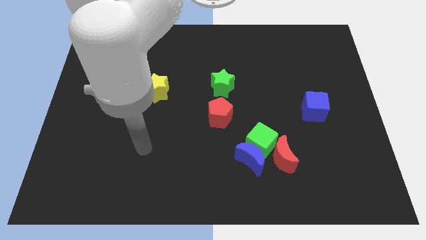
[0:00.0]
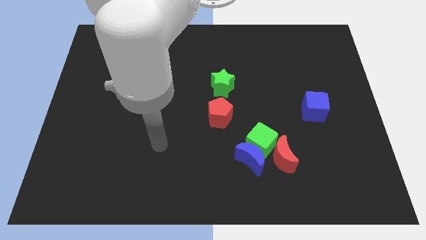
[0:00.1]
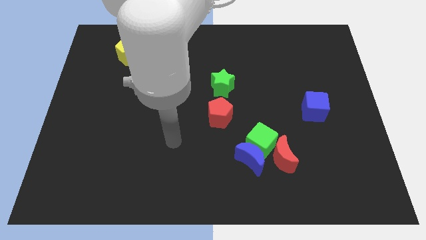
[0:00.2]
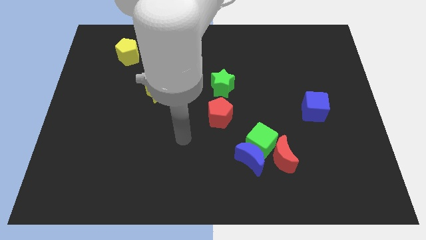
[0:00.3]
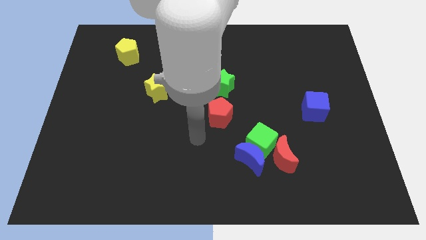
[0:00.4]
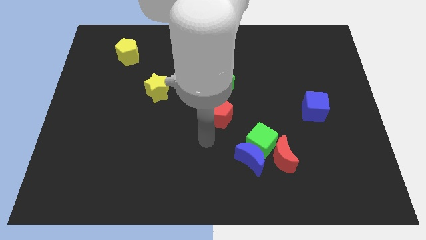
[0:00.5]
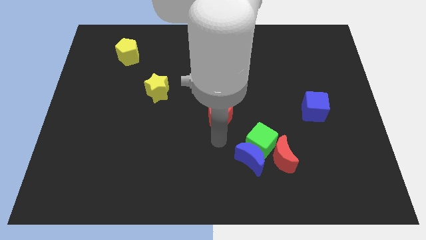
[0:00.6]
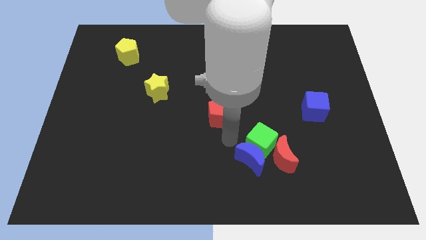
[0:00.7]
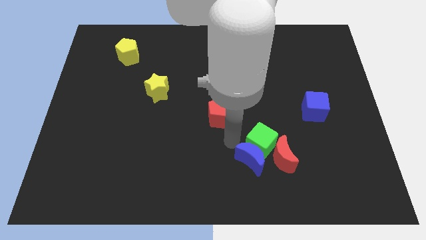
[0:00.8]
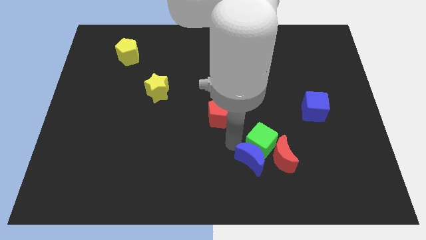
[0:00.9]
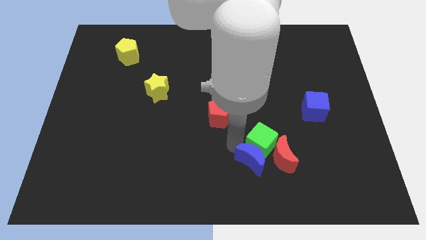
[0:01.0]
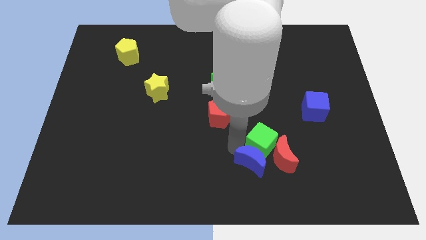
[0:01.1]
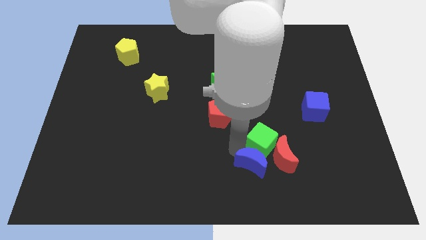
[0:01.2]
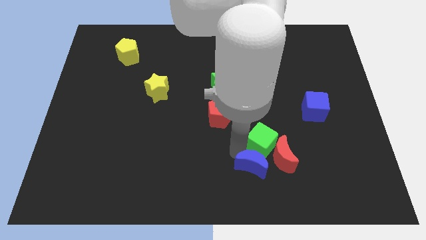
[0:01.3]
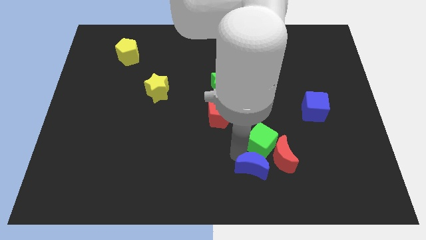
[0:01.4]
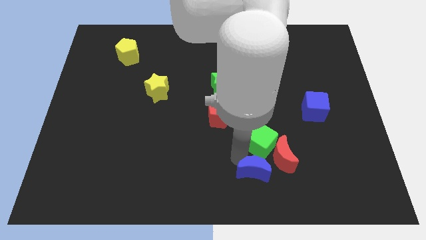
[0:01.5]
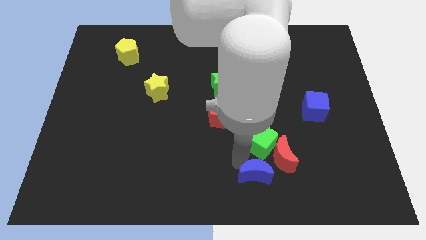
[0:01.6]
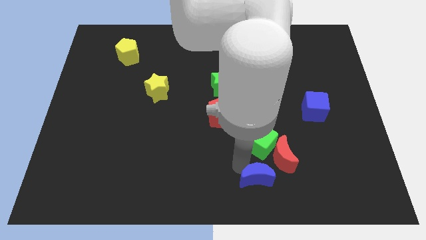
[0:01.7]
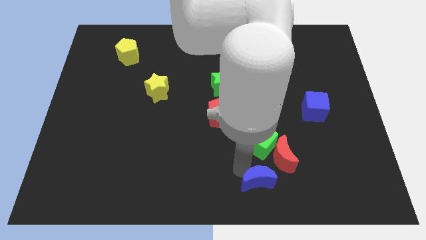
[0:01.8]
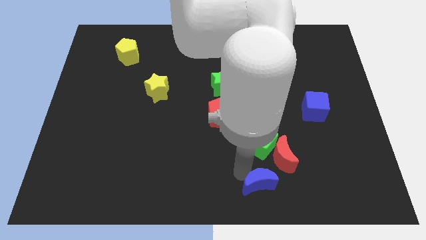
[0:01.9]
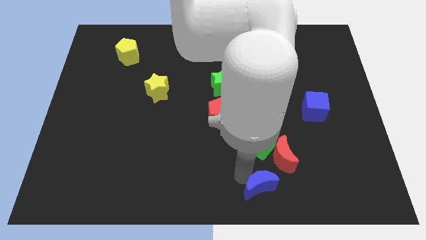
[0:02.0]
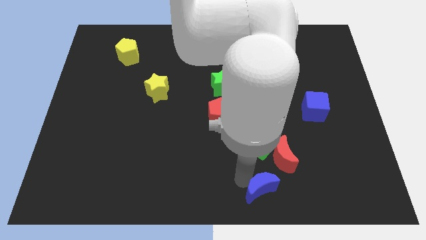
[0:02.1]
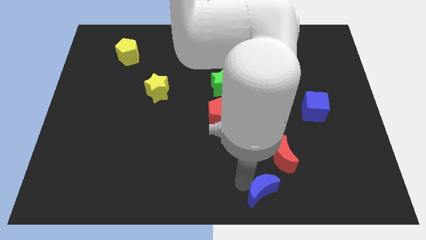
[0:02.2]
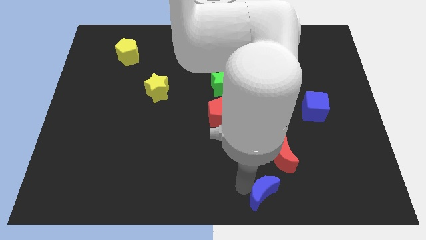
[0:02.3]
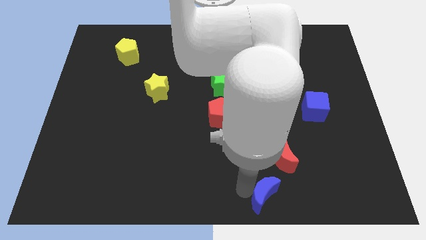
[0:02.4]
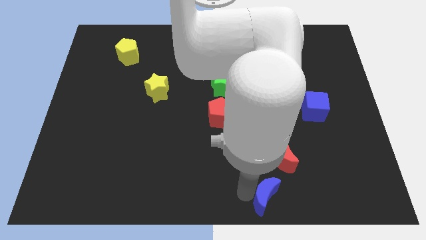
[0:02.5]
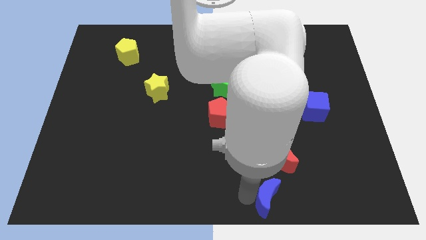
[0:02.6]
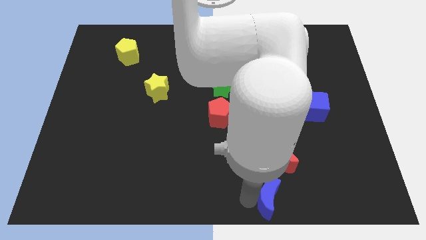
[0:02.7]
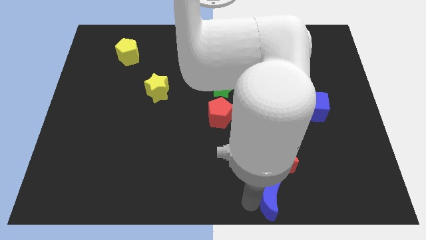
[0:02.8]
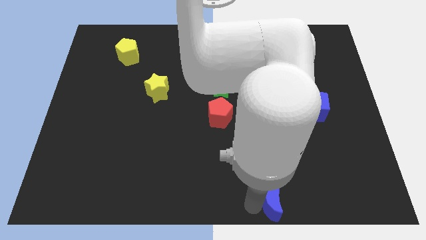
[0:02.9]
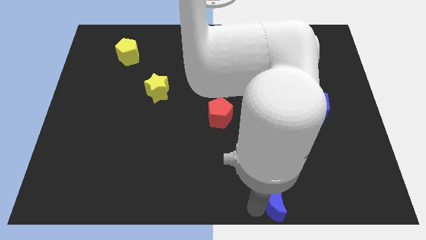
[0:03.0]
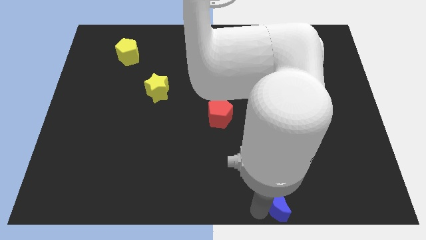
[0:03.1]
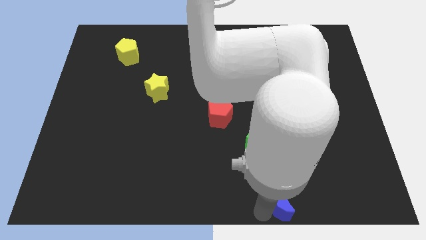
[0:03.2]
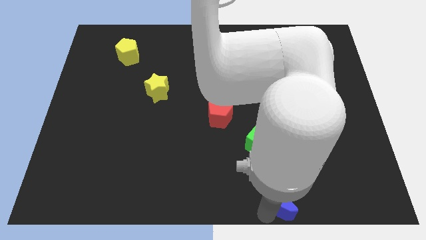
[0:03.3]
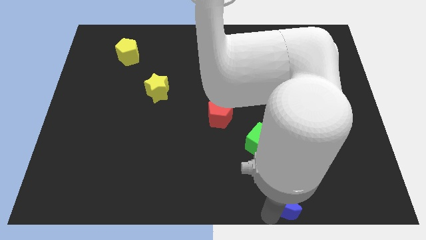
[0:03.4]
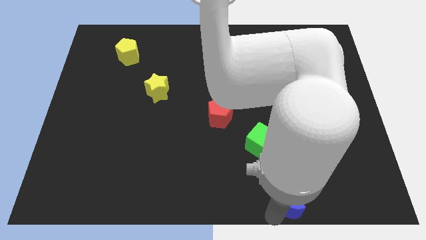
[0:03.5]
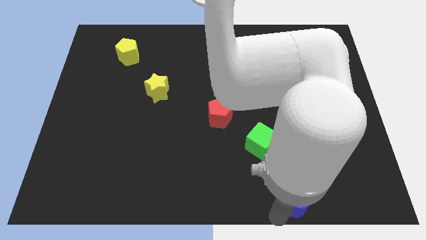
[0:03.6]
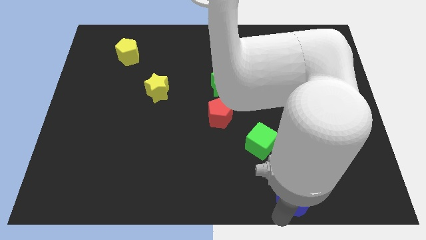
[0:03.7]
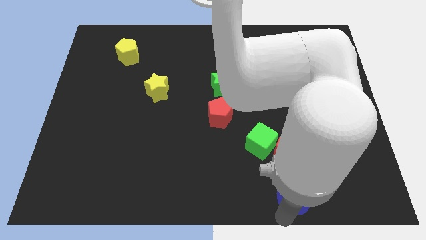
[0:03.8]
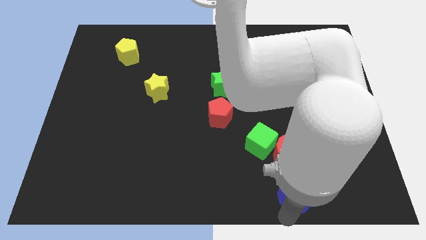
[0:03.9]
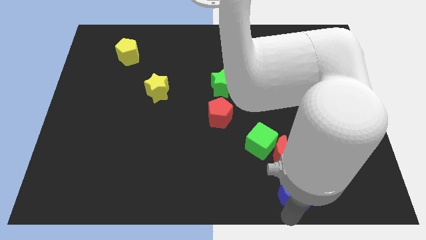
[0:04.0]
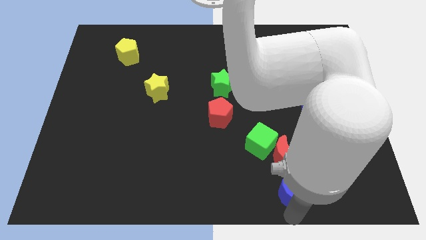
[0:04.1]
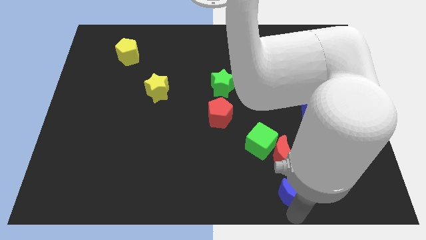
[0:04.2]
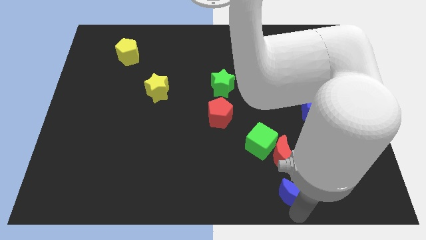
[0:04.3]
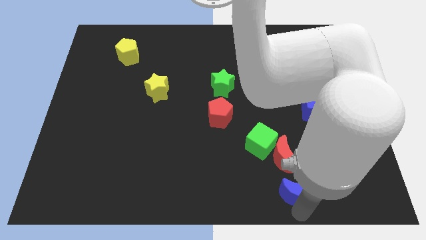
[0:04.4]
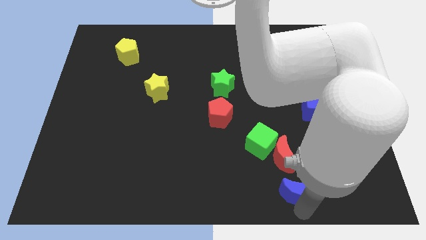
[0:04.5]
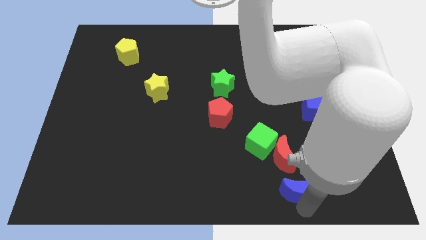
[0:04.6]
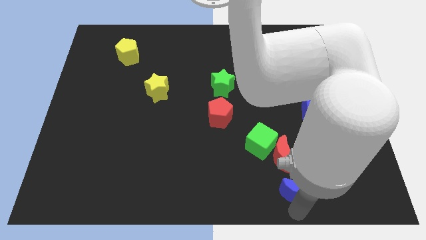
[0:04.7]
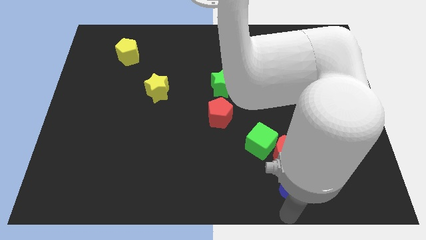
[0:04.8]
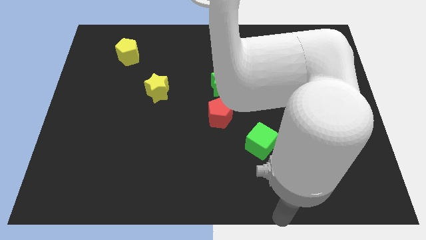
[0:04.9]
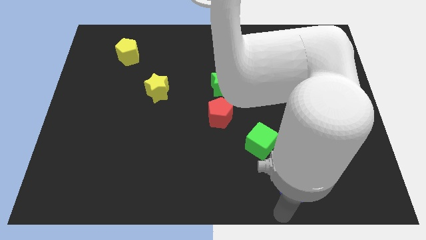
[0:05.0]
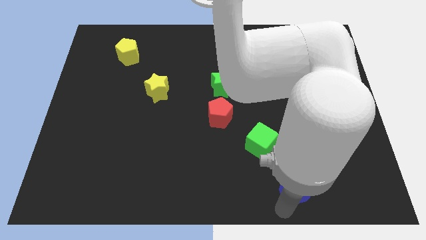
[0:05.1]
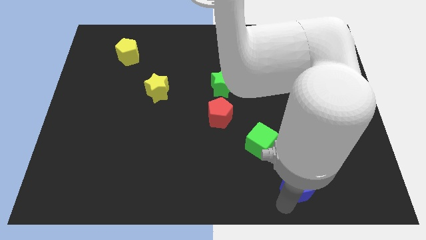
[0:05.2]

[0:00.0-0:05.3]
slightly move the blue moon to the right

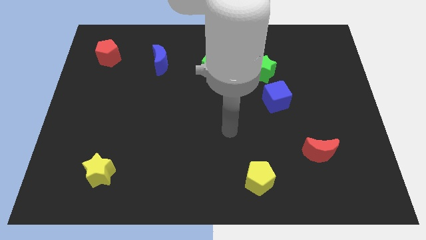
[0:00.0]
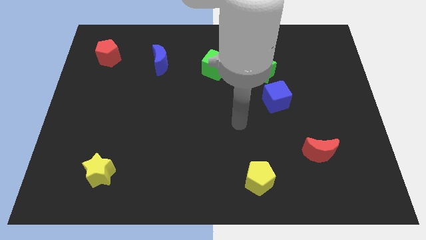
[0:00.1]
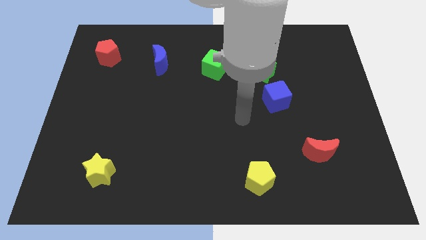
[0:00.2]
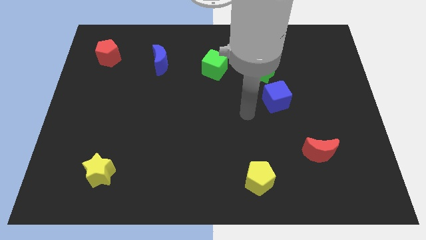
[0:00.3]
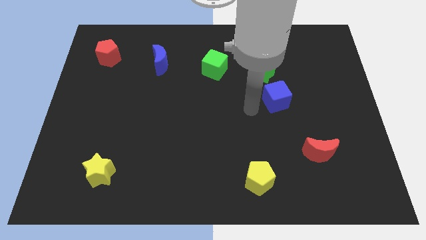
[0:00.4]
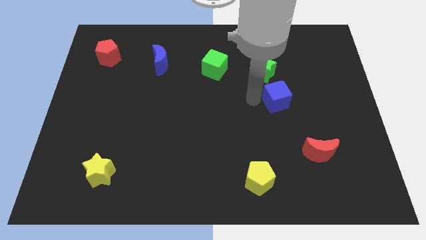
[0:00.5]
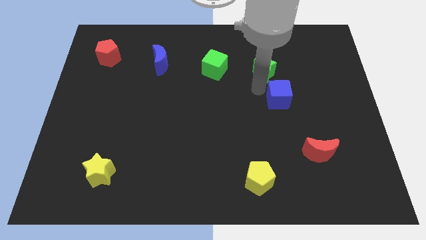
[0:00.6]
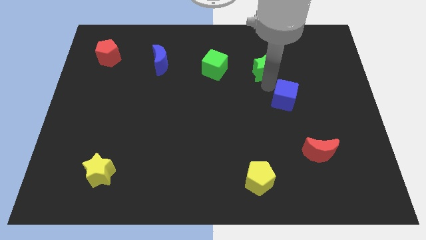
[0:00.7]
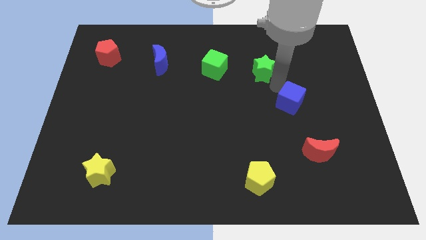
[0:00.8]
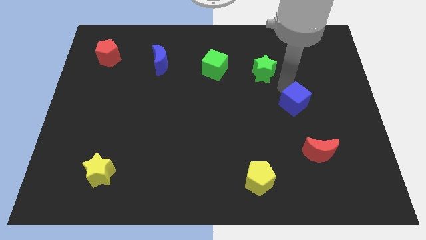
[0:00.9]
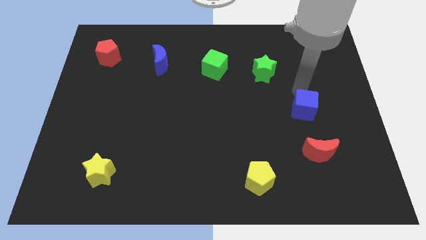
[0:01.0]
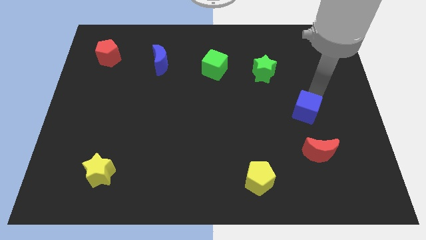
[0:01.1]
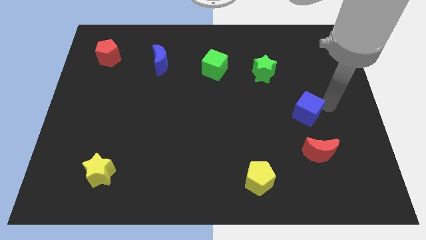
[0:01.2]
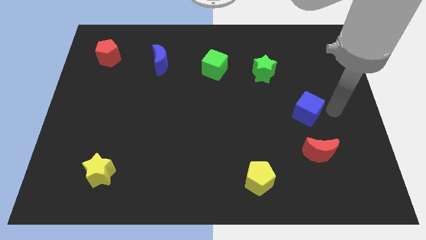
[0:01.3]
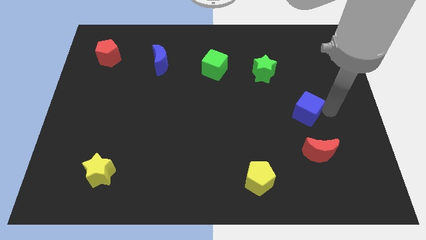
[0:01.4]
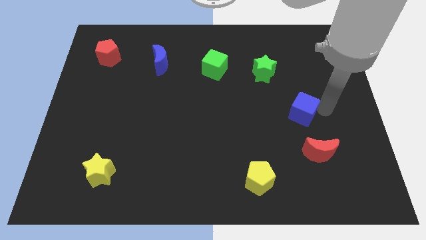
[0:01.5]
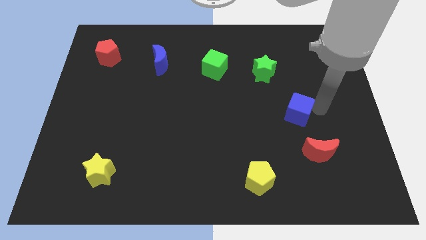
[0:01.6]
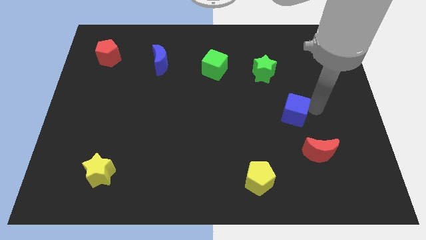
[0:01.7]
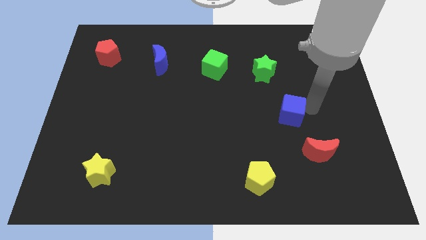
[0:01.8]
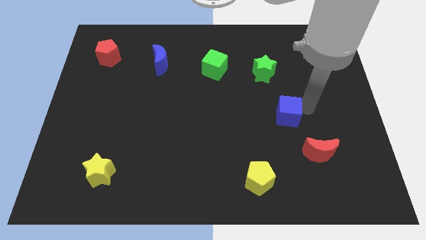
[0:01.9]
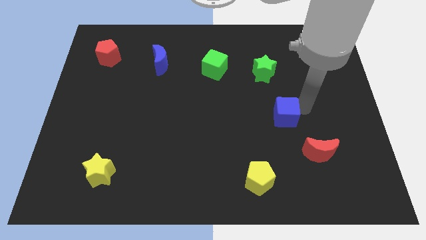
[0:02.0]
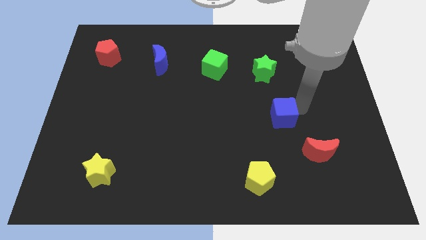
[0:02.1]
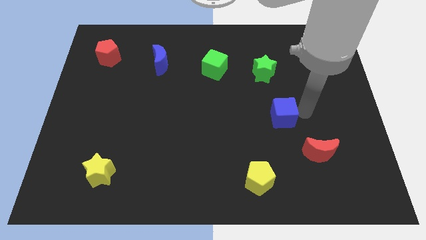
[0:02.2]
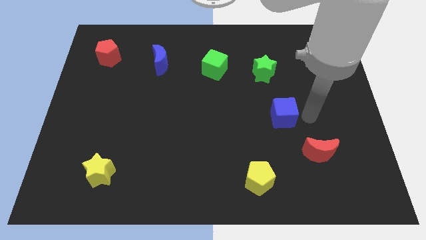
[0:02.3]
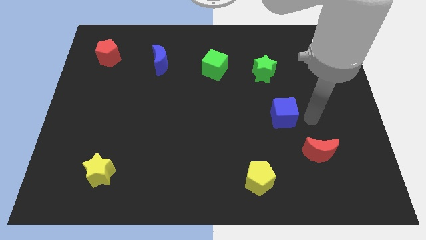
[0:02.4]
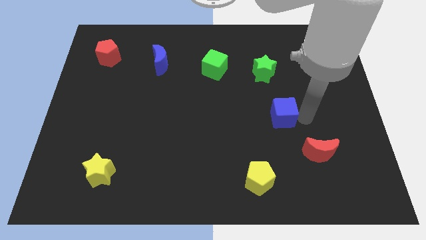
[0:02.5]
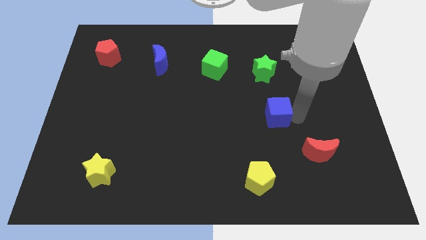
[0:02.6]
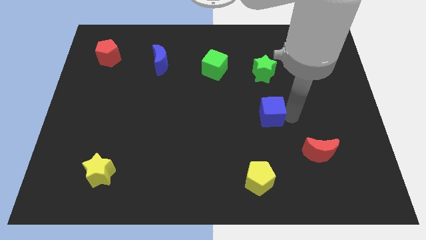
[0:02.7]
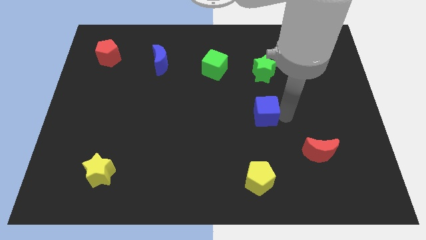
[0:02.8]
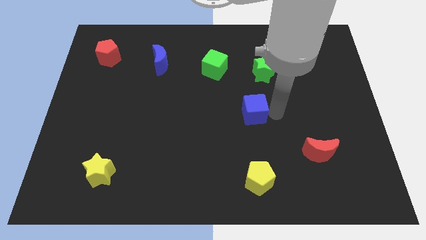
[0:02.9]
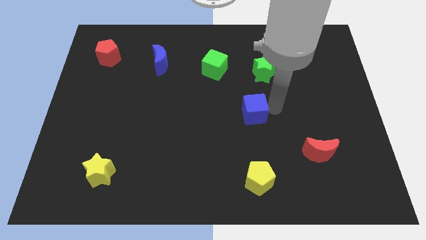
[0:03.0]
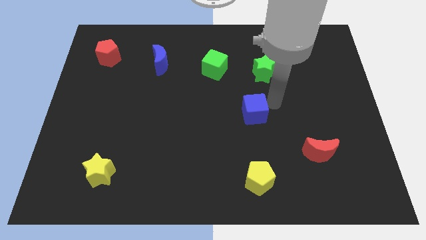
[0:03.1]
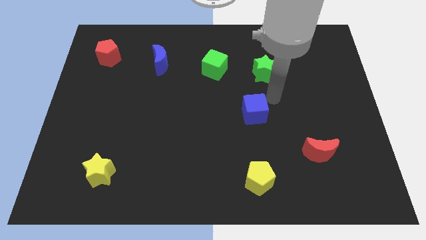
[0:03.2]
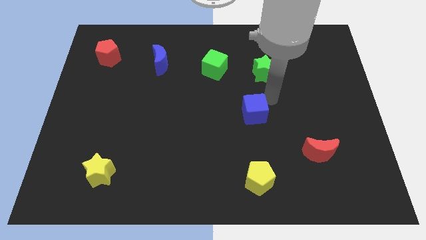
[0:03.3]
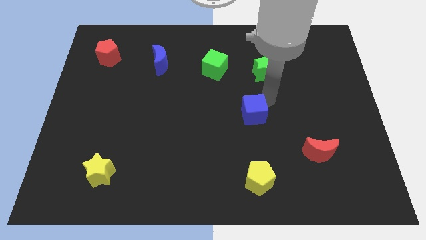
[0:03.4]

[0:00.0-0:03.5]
move the blue cube down and then to the left a bit
